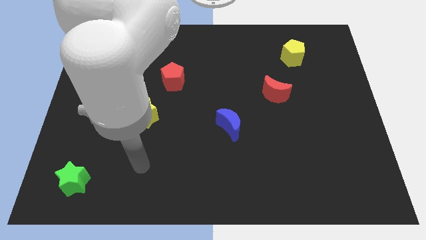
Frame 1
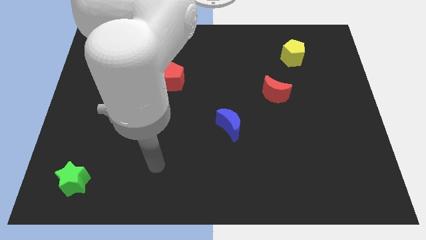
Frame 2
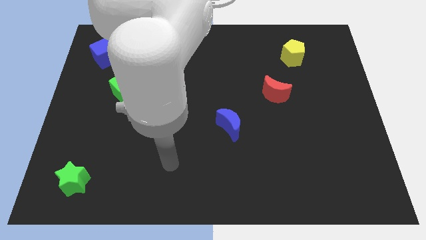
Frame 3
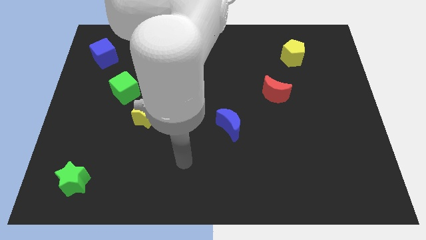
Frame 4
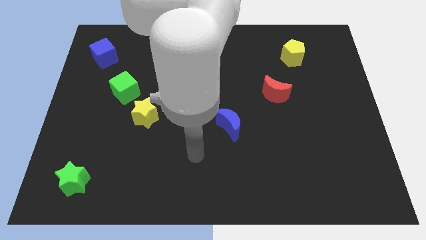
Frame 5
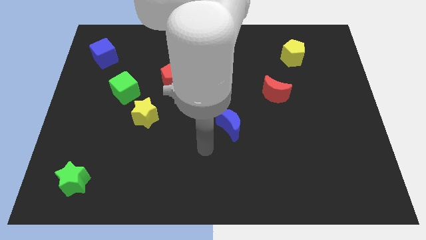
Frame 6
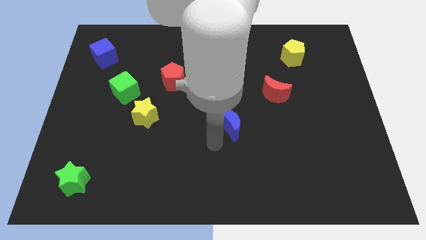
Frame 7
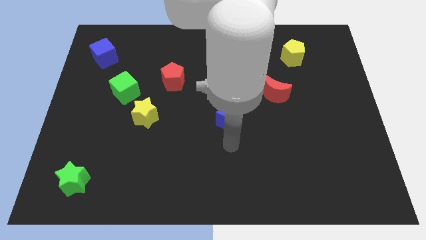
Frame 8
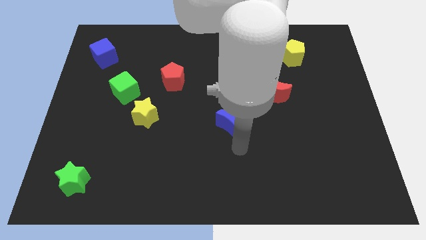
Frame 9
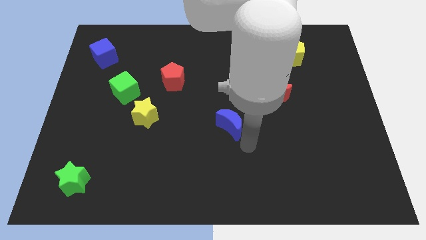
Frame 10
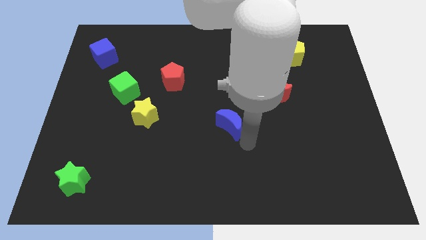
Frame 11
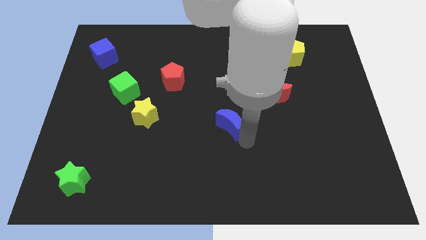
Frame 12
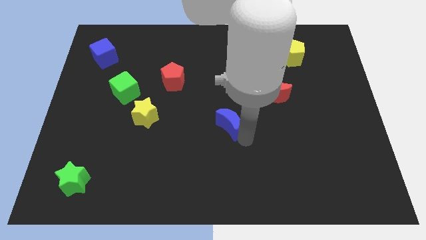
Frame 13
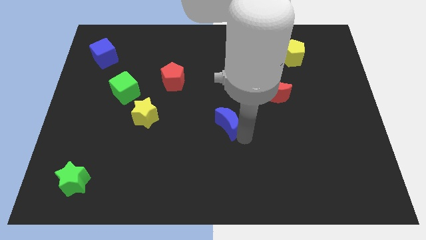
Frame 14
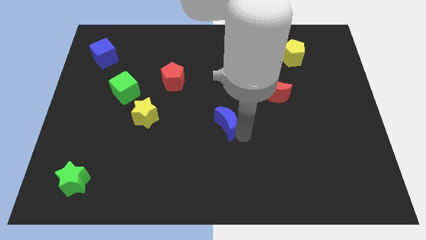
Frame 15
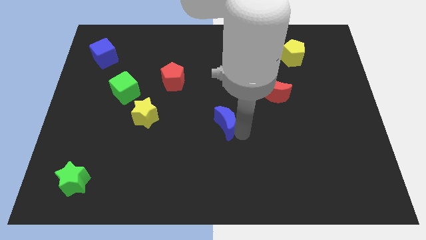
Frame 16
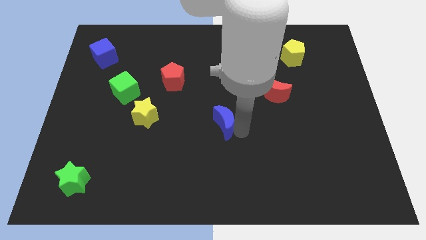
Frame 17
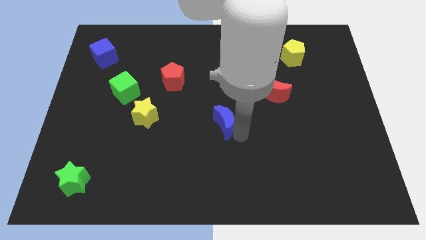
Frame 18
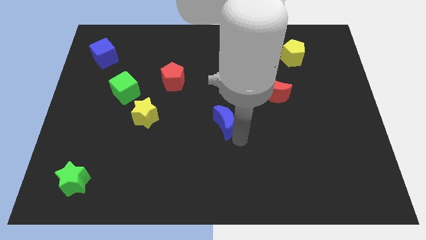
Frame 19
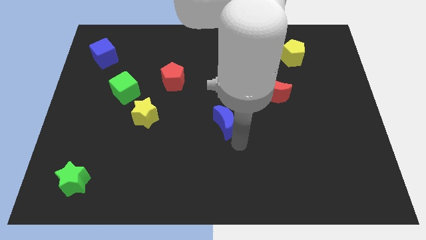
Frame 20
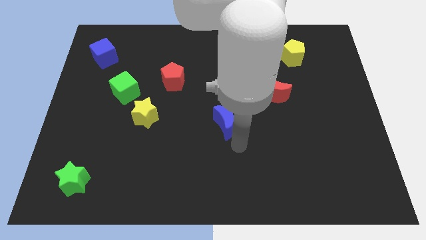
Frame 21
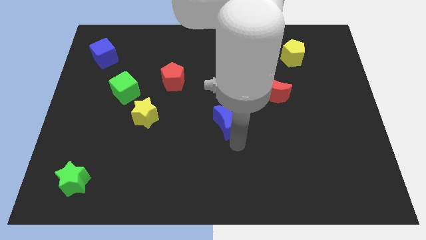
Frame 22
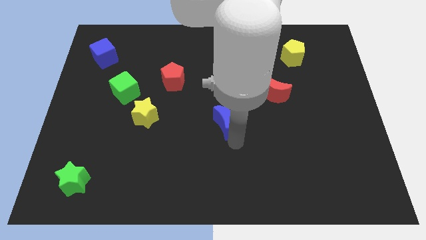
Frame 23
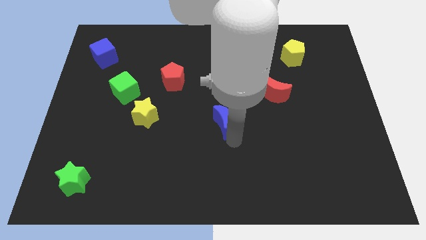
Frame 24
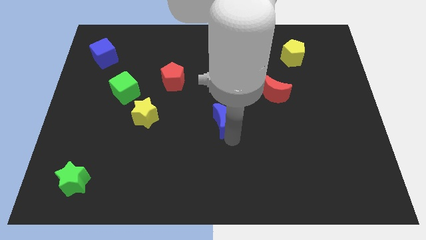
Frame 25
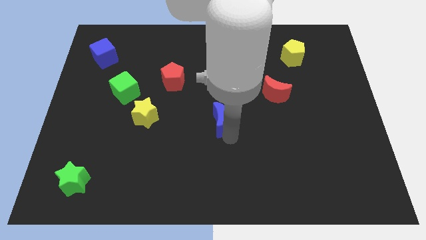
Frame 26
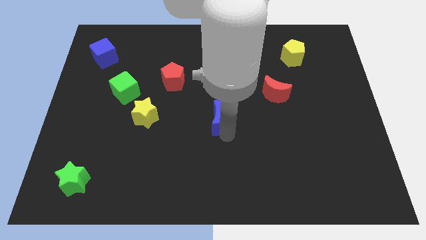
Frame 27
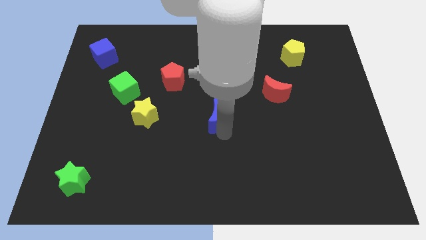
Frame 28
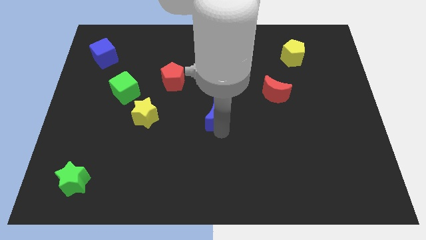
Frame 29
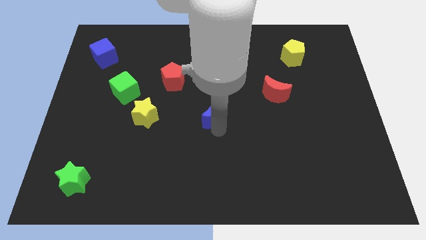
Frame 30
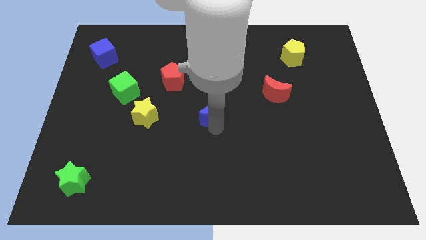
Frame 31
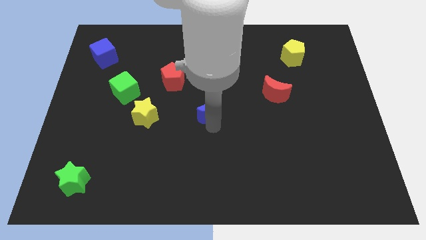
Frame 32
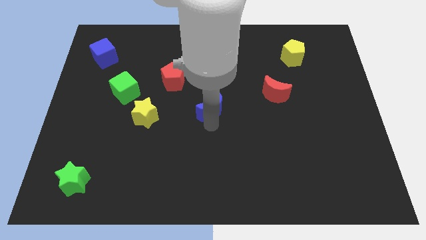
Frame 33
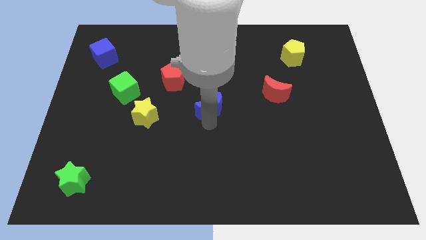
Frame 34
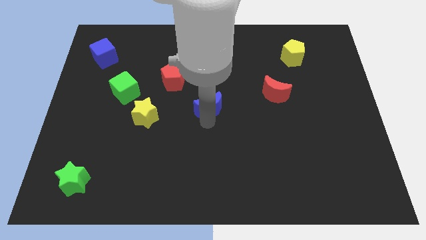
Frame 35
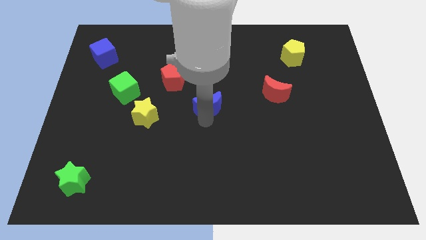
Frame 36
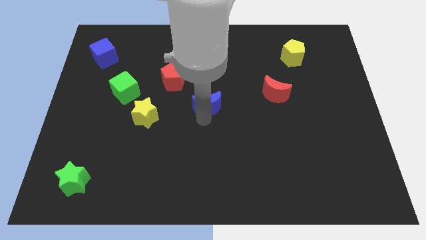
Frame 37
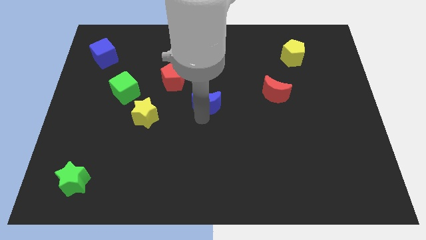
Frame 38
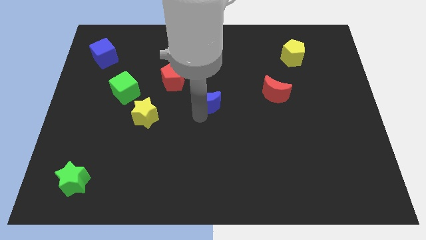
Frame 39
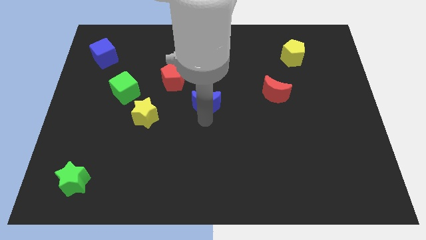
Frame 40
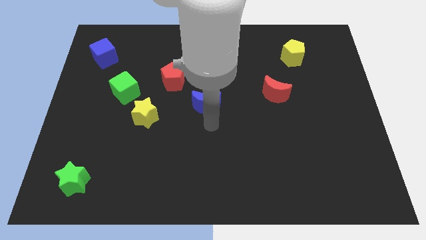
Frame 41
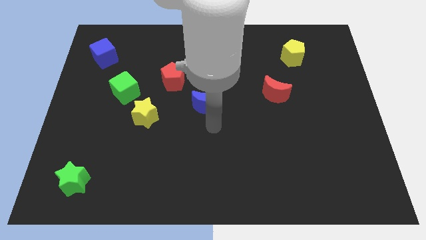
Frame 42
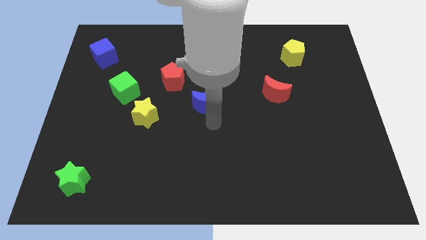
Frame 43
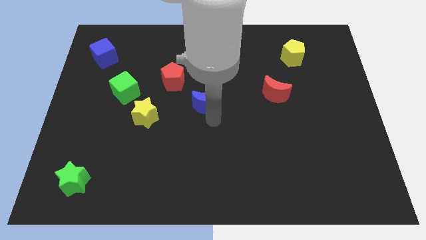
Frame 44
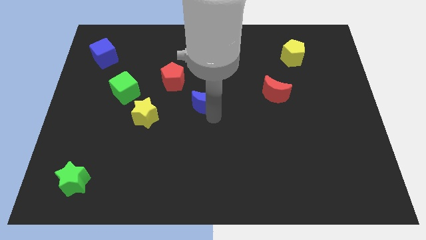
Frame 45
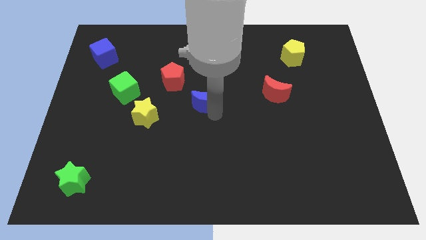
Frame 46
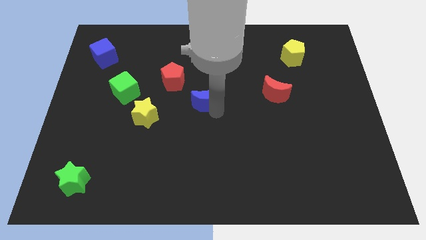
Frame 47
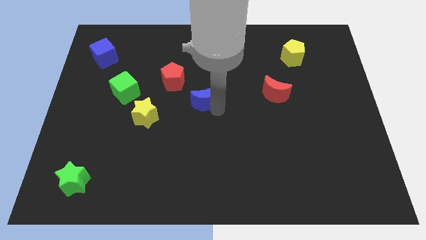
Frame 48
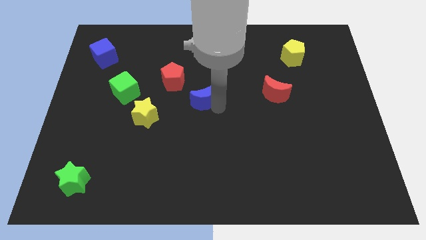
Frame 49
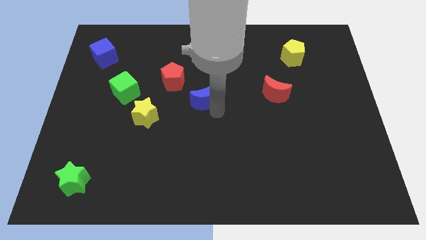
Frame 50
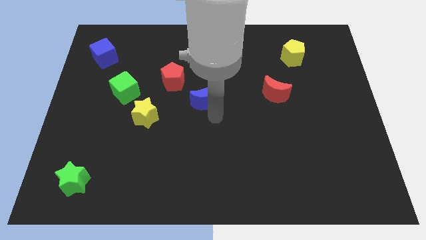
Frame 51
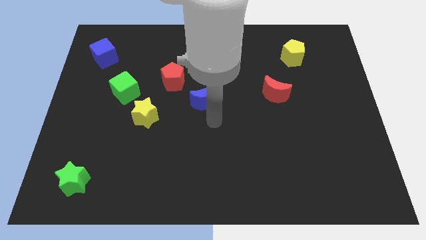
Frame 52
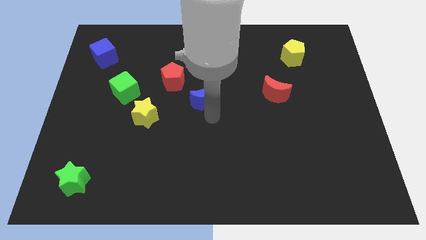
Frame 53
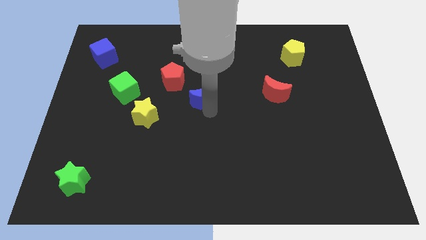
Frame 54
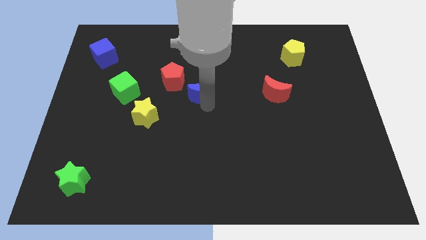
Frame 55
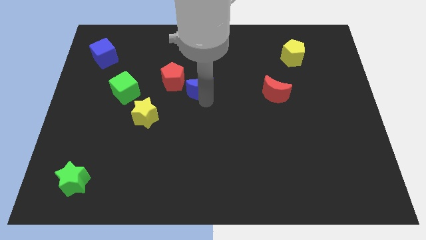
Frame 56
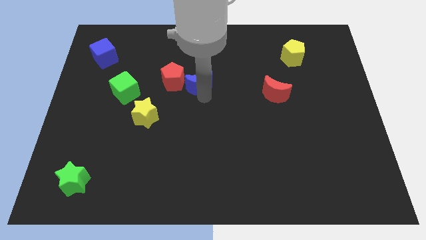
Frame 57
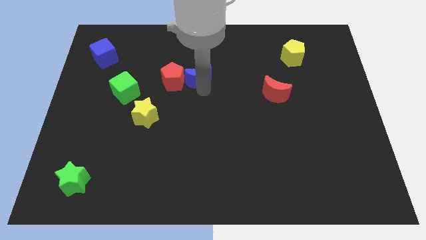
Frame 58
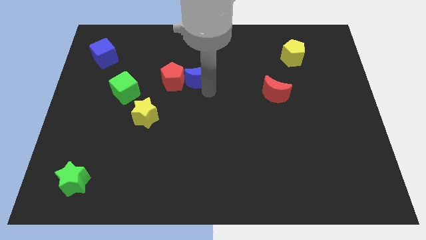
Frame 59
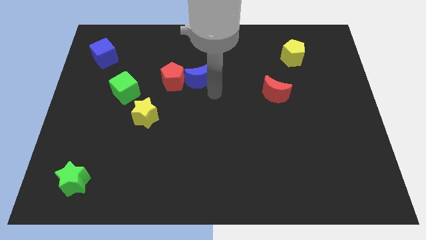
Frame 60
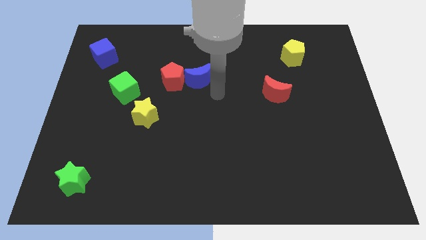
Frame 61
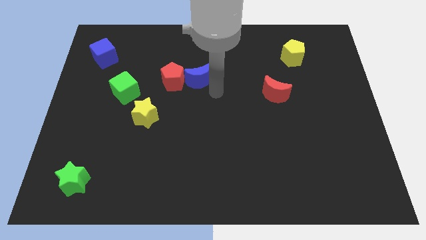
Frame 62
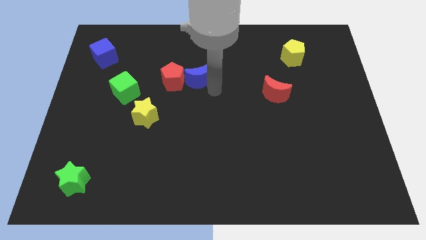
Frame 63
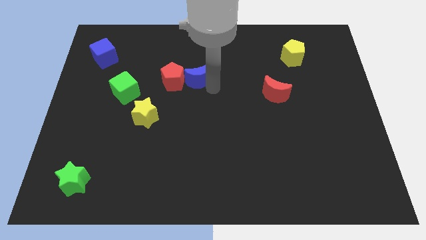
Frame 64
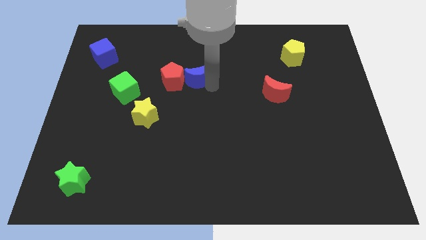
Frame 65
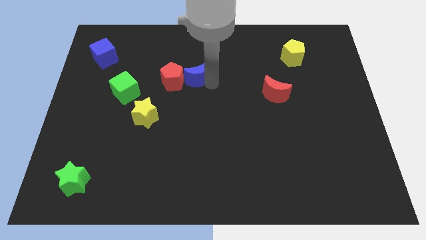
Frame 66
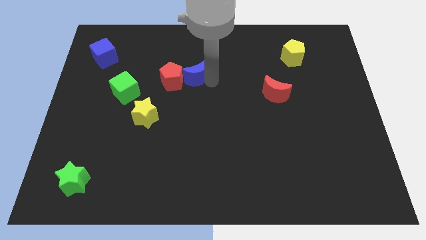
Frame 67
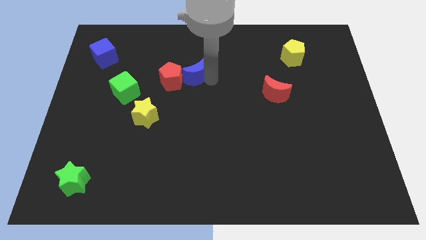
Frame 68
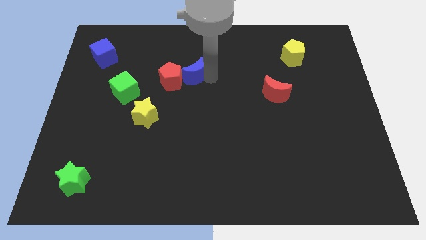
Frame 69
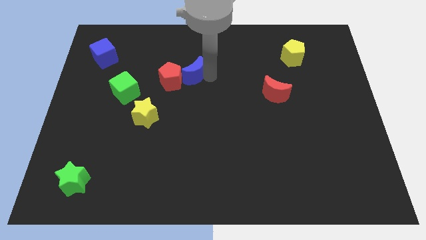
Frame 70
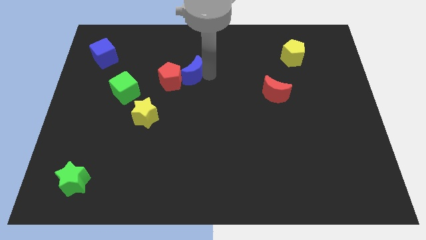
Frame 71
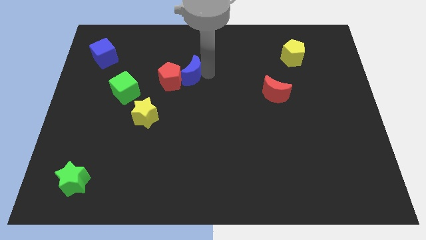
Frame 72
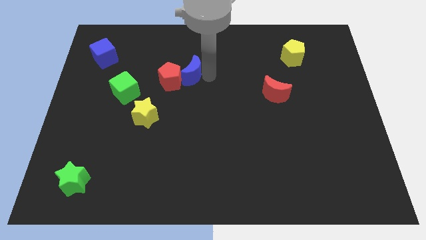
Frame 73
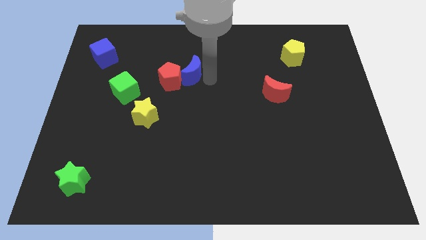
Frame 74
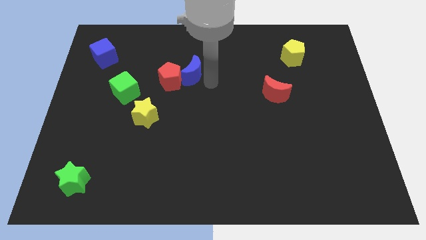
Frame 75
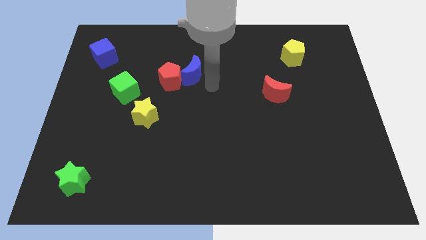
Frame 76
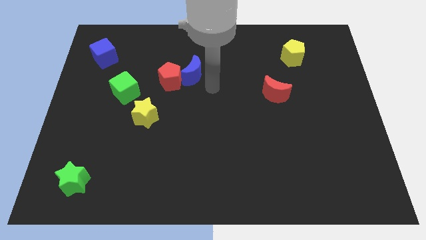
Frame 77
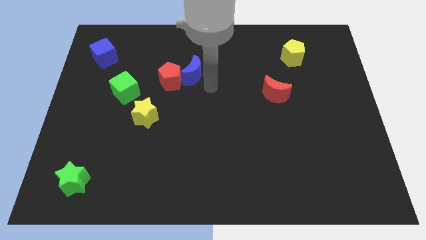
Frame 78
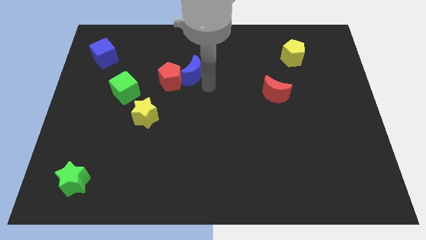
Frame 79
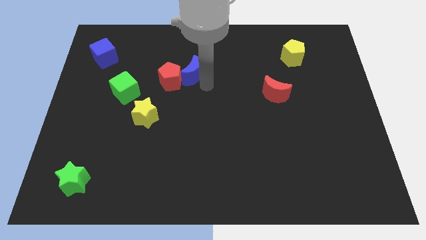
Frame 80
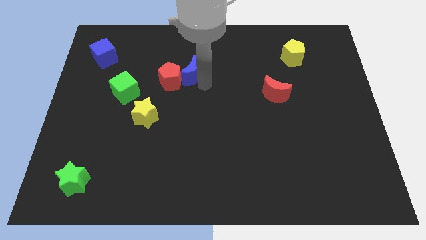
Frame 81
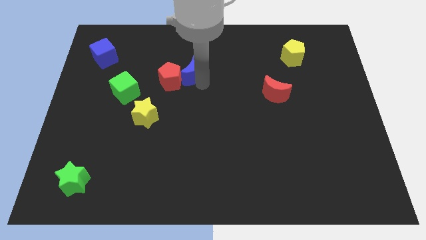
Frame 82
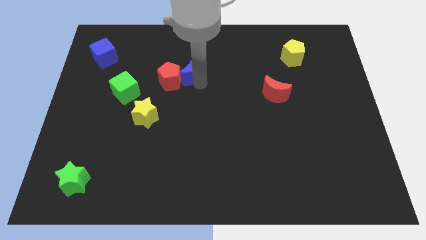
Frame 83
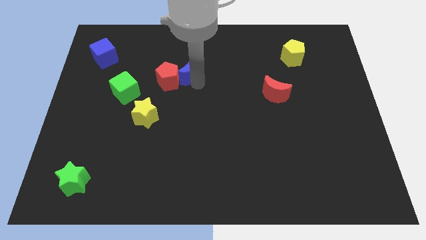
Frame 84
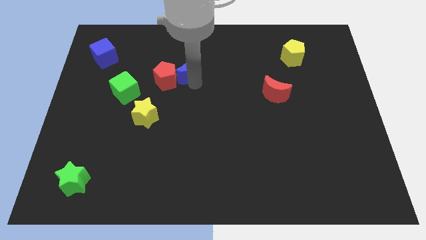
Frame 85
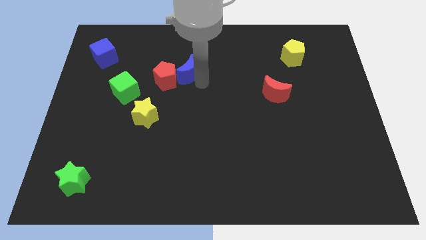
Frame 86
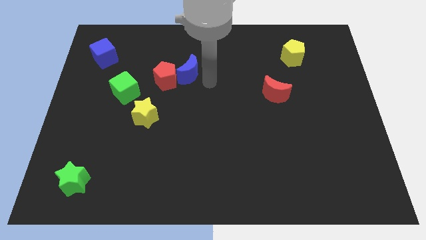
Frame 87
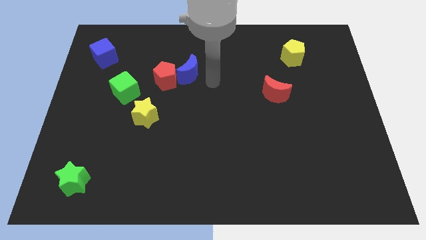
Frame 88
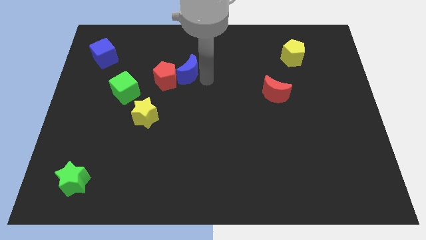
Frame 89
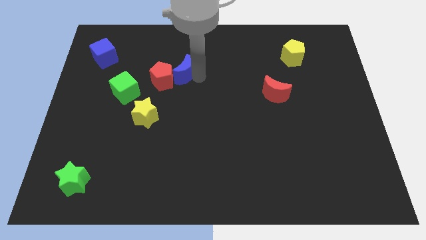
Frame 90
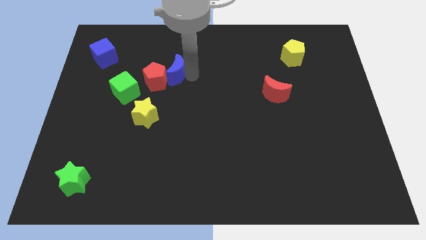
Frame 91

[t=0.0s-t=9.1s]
move the blue moon up and then left
